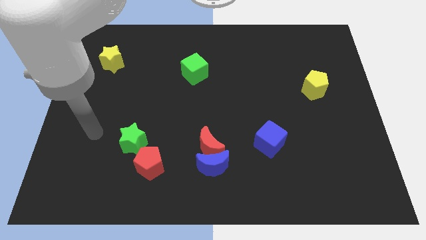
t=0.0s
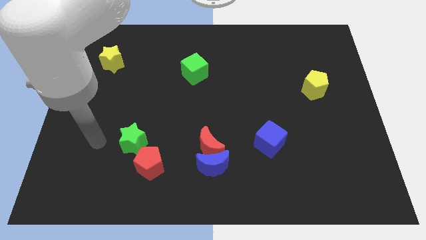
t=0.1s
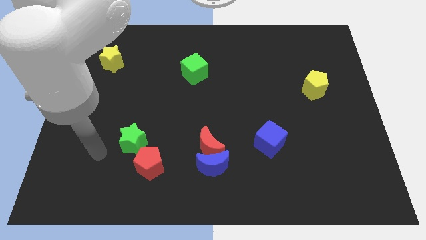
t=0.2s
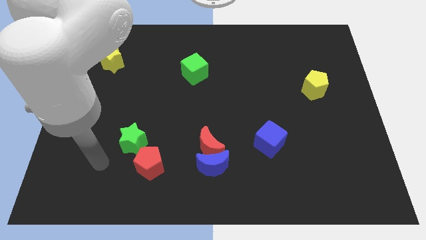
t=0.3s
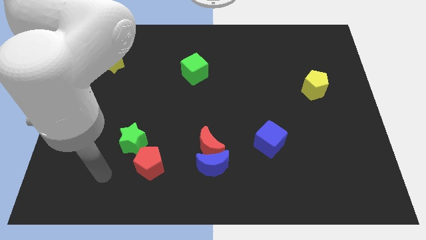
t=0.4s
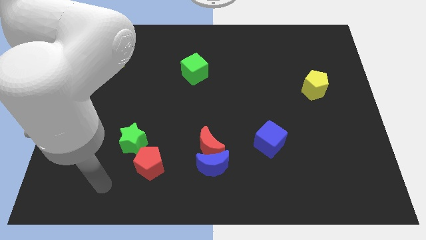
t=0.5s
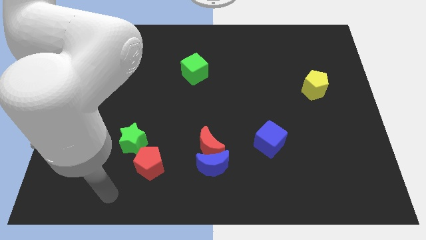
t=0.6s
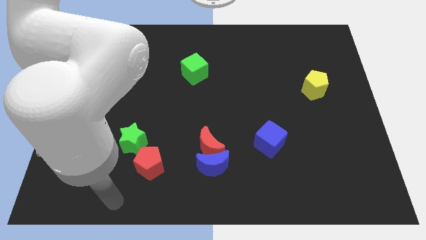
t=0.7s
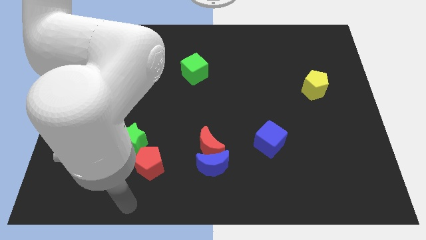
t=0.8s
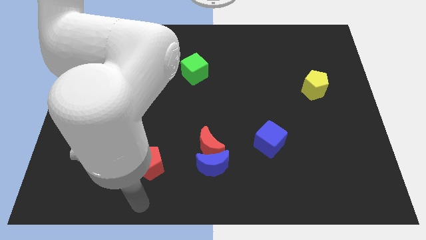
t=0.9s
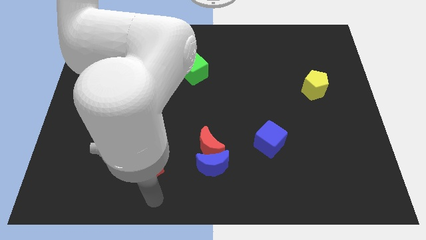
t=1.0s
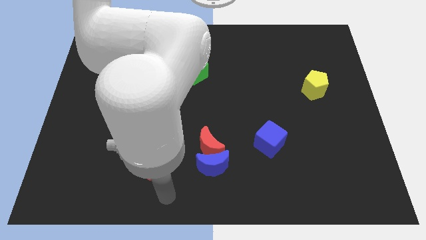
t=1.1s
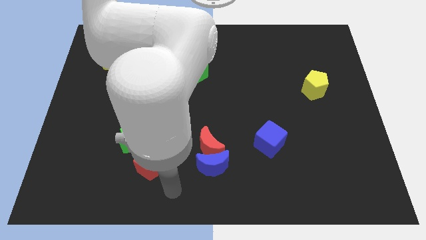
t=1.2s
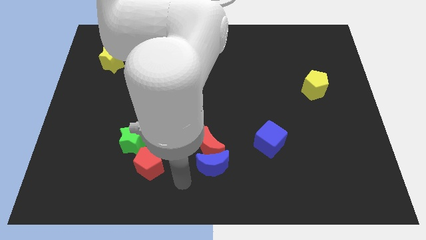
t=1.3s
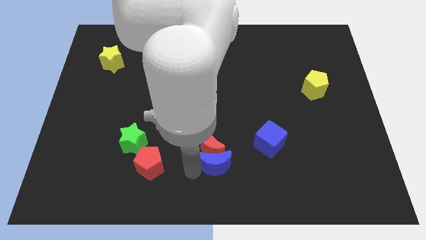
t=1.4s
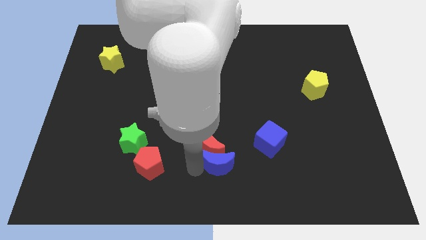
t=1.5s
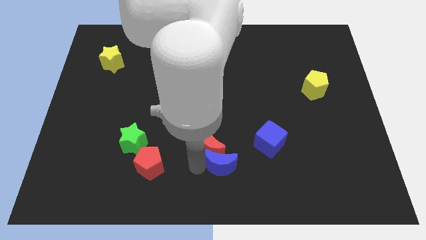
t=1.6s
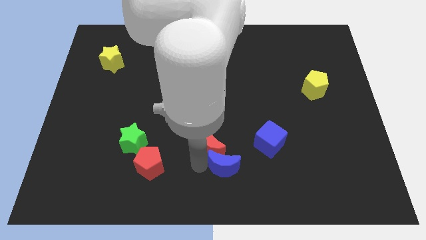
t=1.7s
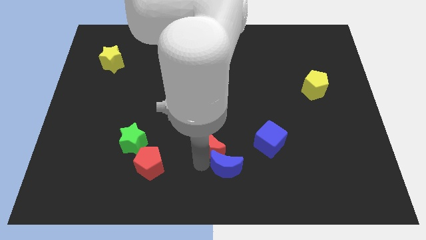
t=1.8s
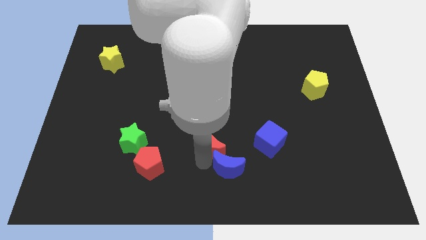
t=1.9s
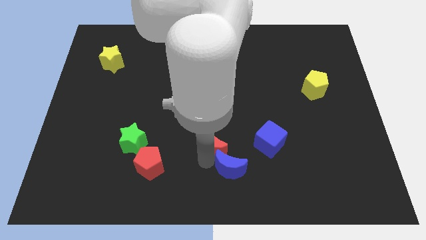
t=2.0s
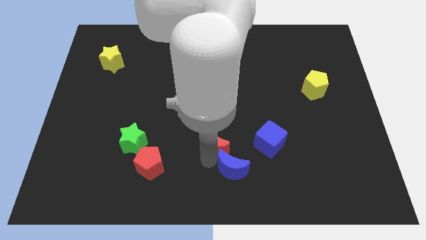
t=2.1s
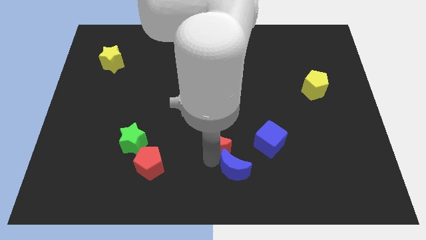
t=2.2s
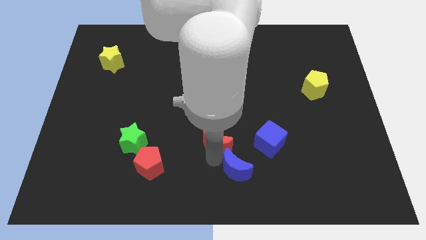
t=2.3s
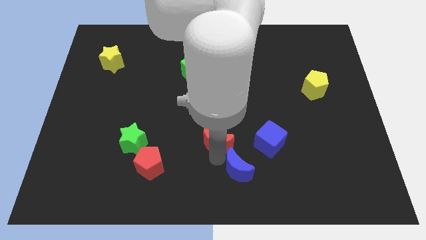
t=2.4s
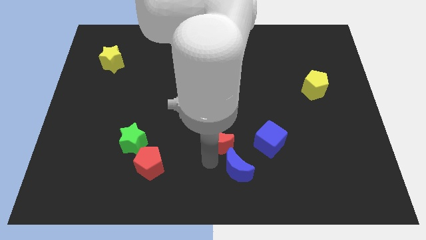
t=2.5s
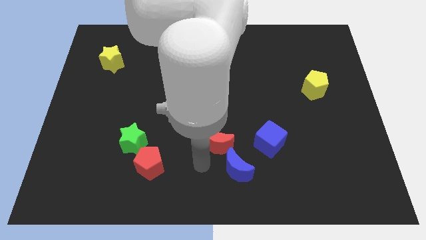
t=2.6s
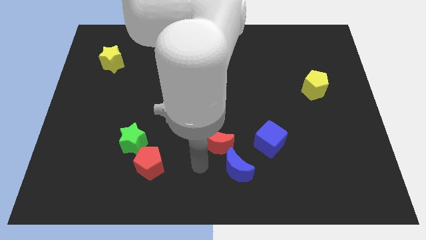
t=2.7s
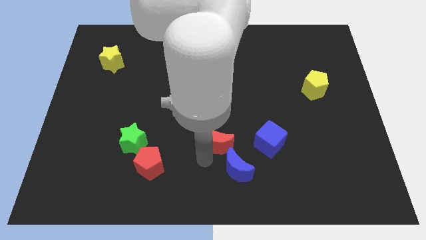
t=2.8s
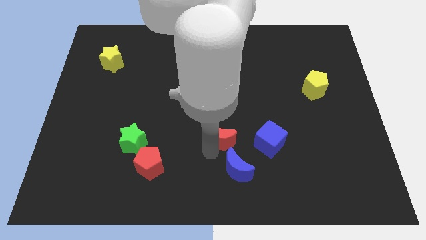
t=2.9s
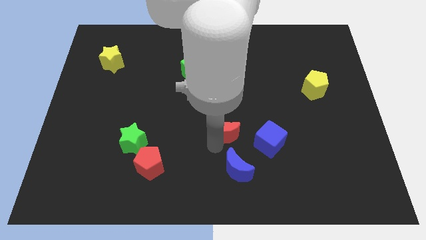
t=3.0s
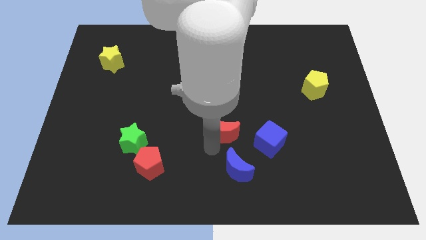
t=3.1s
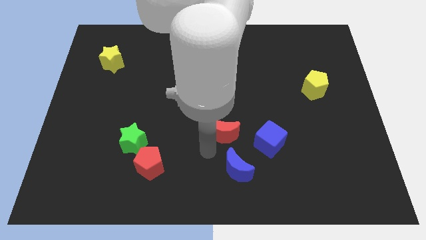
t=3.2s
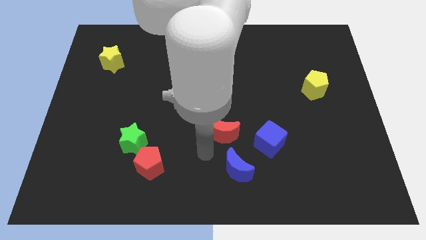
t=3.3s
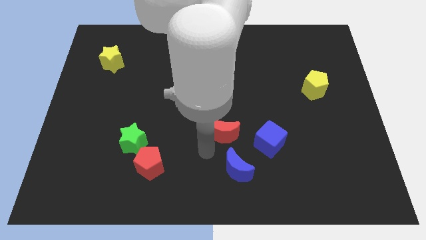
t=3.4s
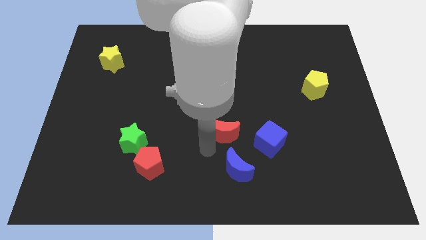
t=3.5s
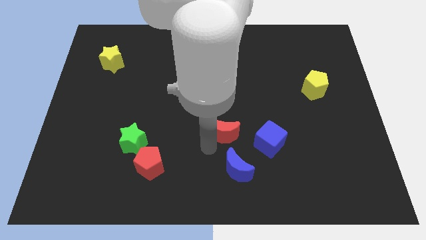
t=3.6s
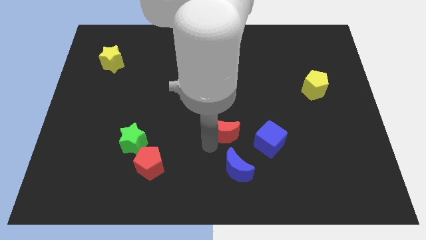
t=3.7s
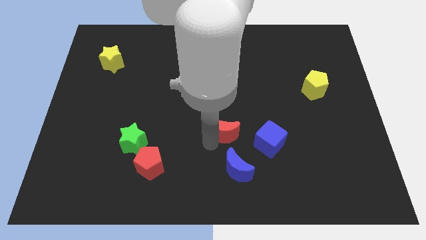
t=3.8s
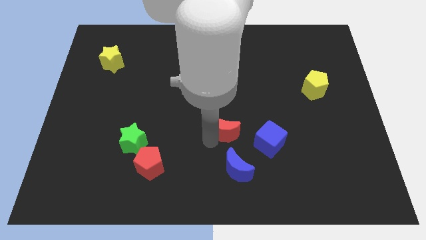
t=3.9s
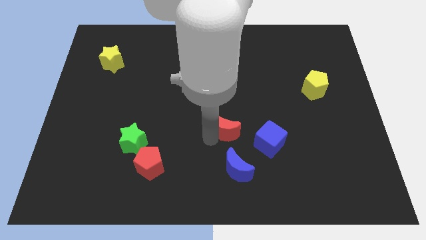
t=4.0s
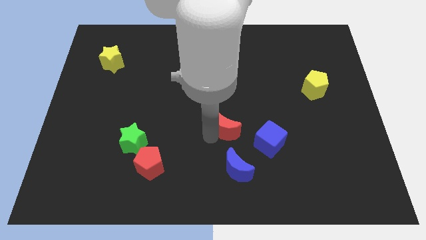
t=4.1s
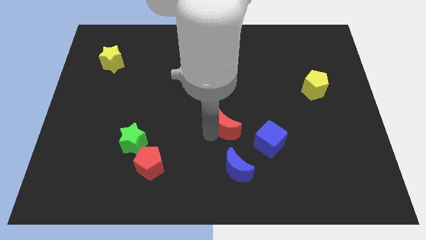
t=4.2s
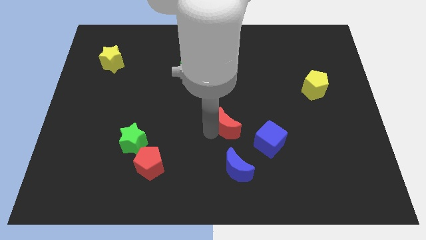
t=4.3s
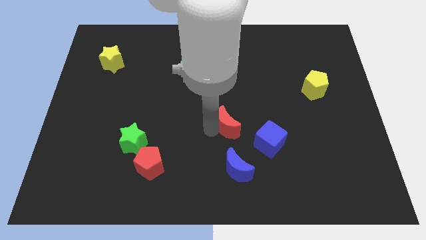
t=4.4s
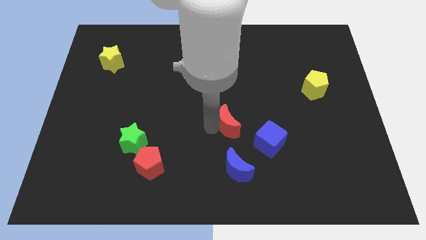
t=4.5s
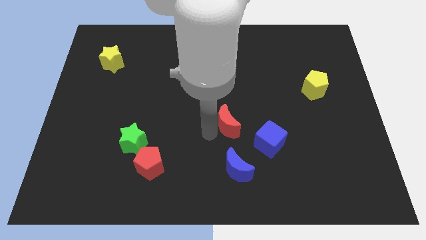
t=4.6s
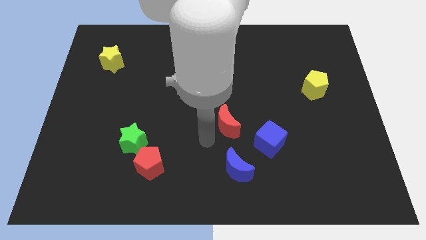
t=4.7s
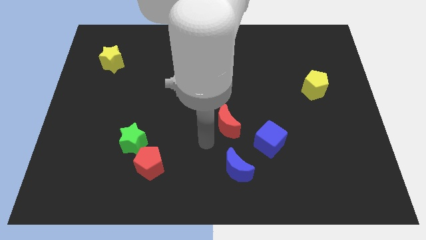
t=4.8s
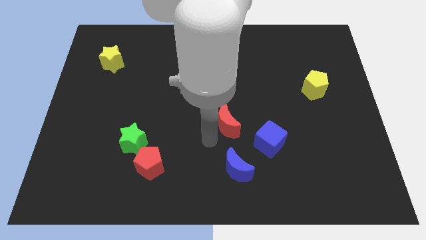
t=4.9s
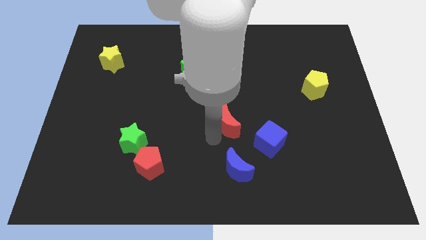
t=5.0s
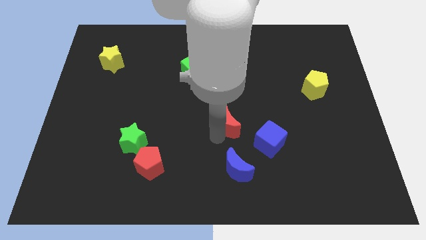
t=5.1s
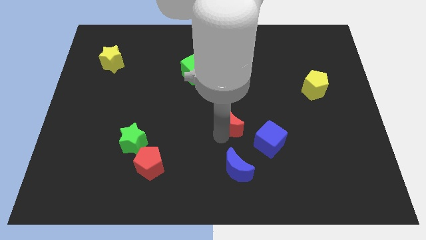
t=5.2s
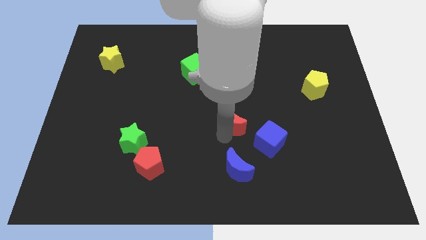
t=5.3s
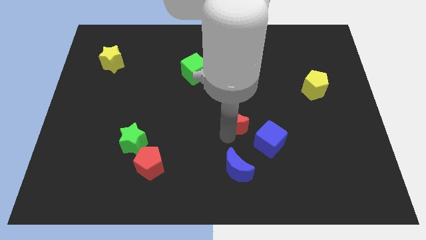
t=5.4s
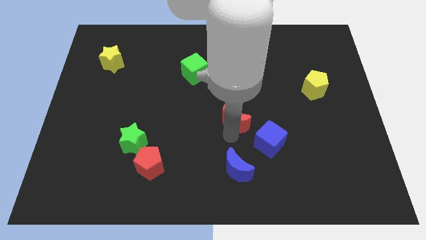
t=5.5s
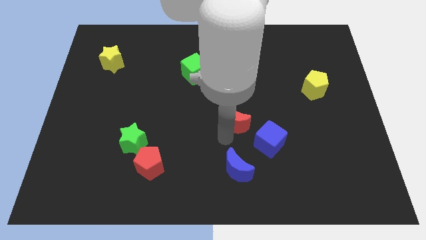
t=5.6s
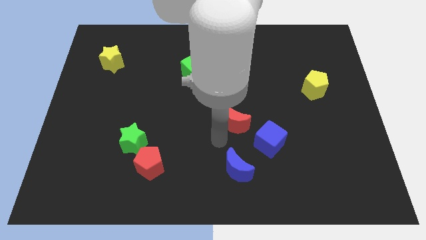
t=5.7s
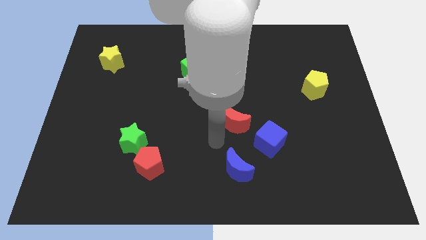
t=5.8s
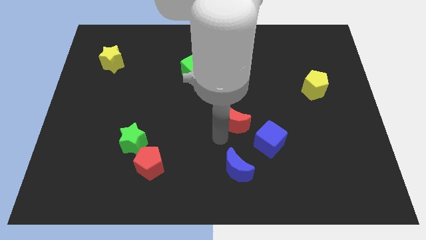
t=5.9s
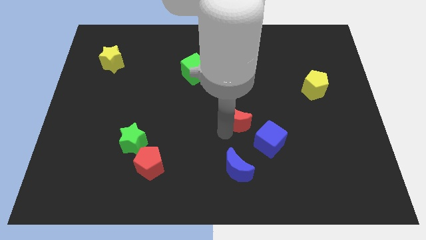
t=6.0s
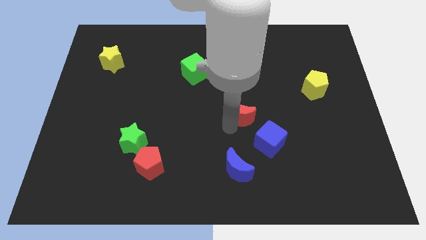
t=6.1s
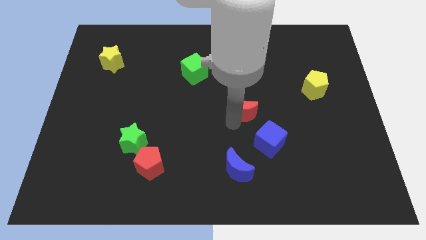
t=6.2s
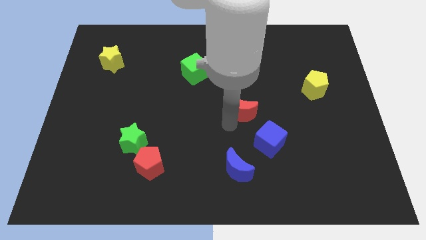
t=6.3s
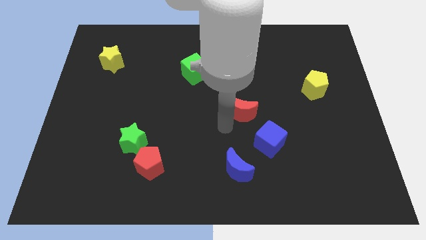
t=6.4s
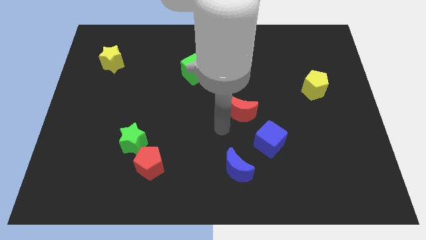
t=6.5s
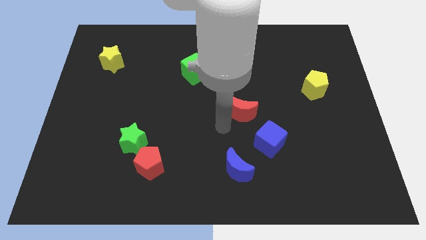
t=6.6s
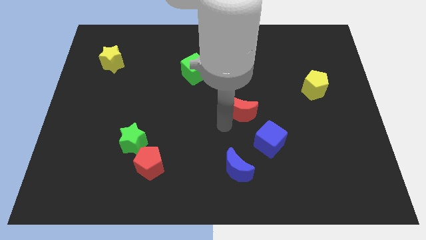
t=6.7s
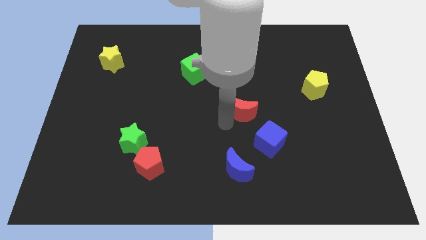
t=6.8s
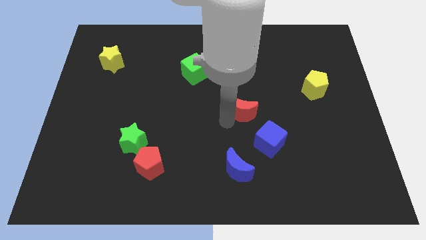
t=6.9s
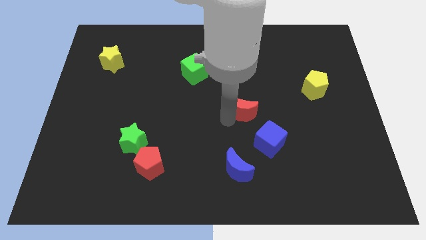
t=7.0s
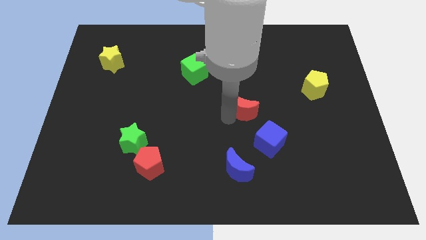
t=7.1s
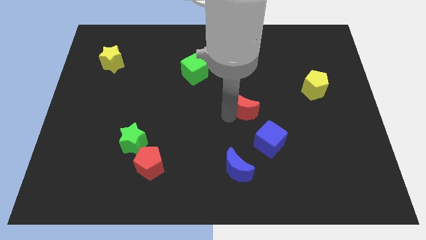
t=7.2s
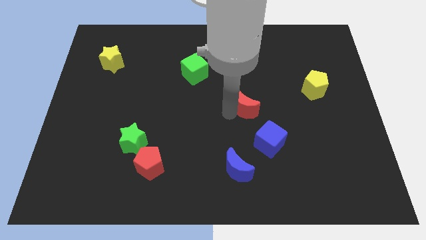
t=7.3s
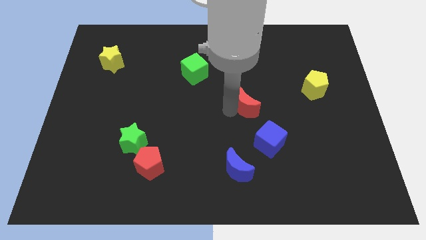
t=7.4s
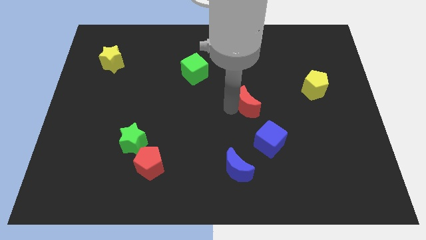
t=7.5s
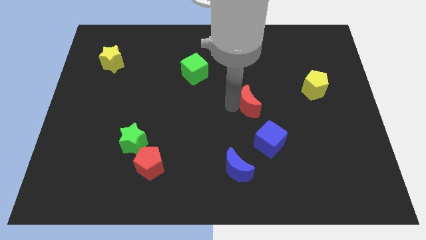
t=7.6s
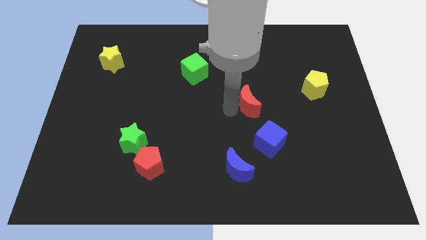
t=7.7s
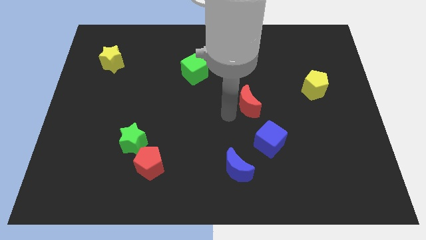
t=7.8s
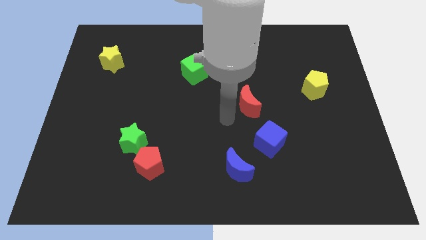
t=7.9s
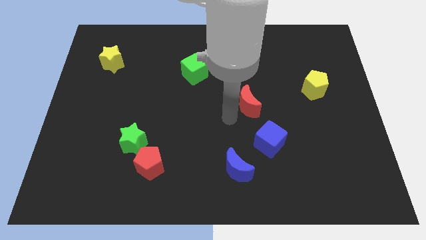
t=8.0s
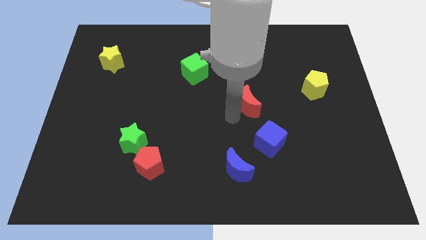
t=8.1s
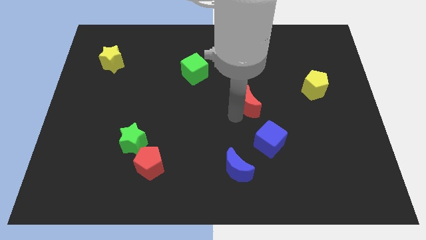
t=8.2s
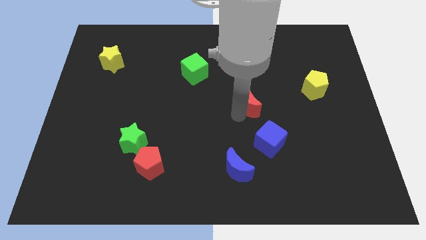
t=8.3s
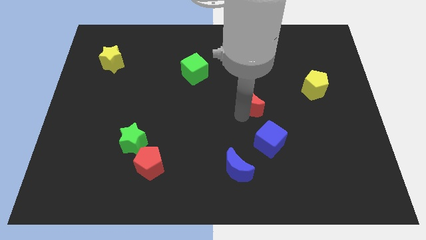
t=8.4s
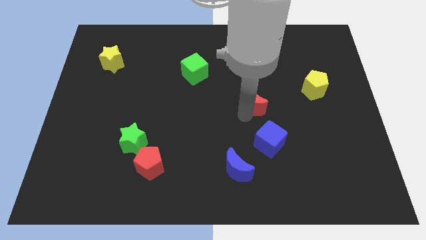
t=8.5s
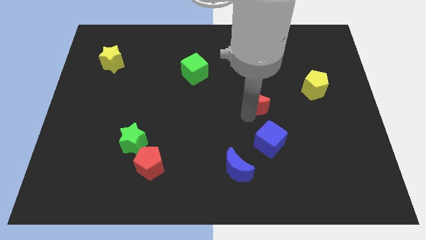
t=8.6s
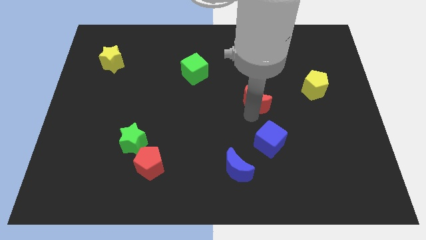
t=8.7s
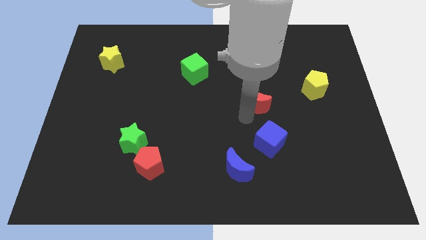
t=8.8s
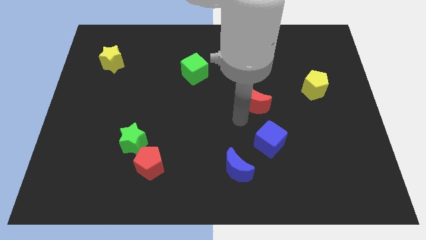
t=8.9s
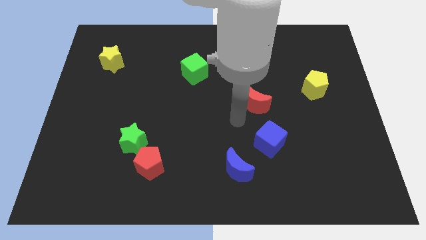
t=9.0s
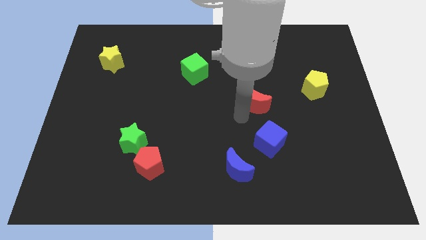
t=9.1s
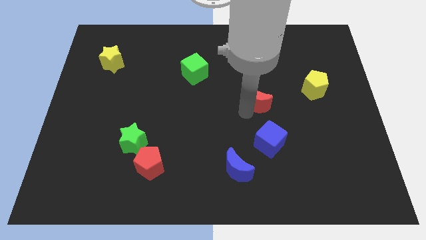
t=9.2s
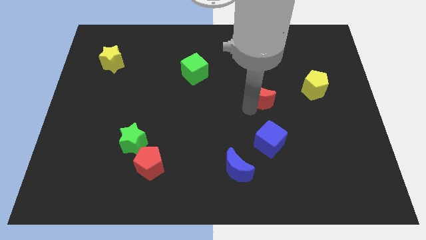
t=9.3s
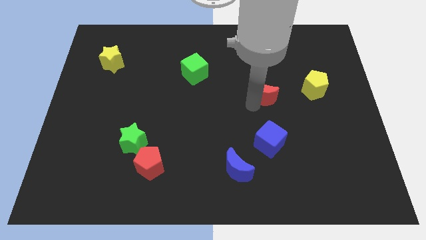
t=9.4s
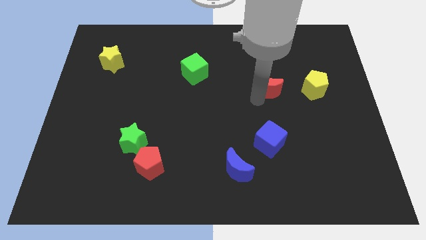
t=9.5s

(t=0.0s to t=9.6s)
move the red moon up and then right
